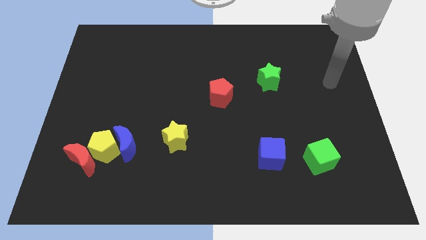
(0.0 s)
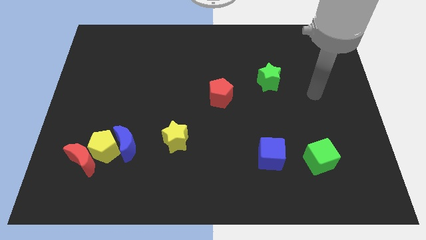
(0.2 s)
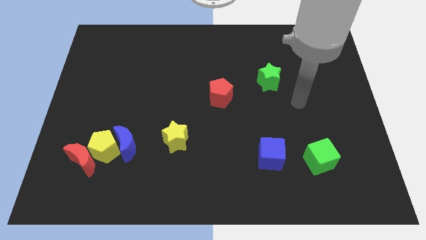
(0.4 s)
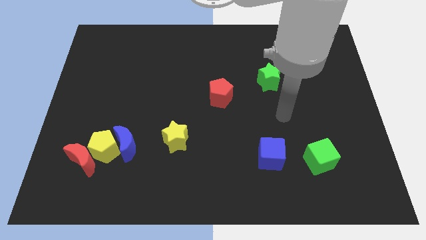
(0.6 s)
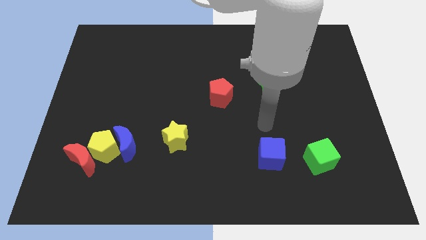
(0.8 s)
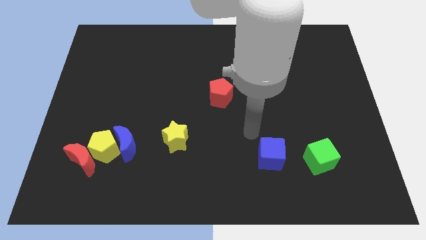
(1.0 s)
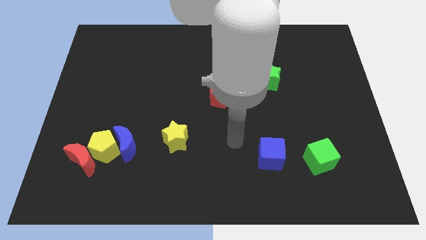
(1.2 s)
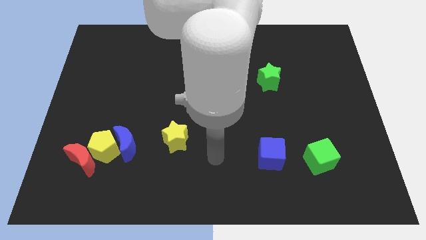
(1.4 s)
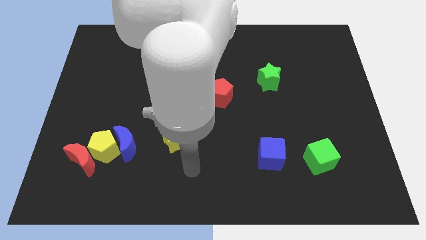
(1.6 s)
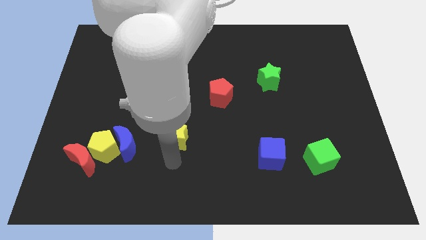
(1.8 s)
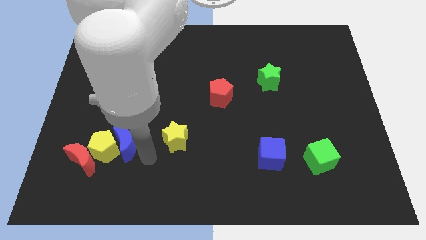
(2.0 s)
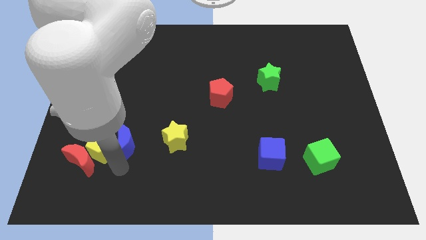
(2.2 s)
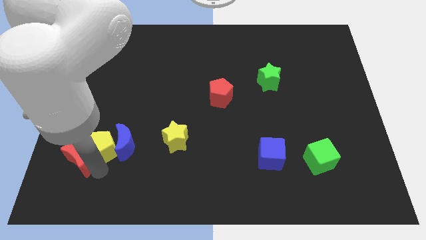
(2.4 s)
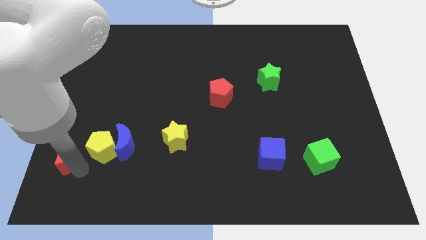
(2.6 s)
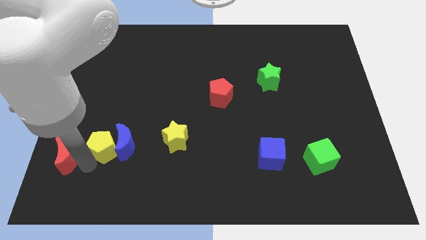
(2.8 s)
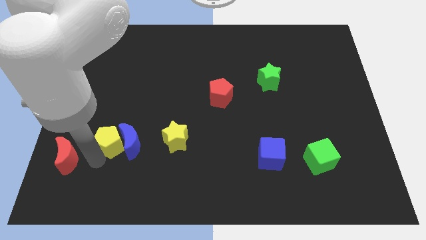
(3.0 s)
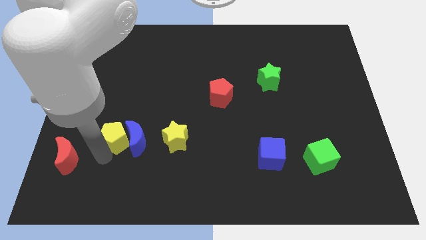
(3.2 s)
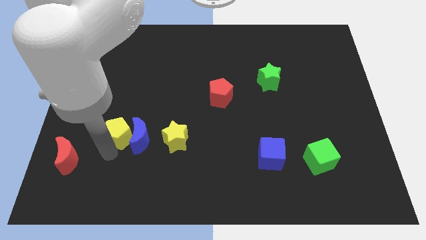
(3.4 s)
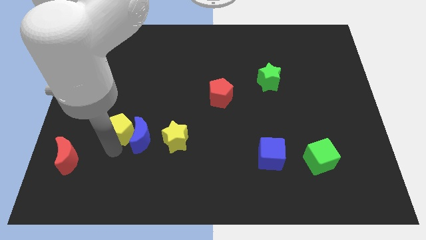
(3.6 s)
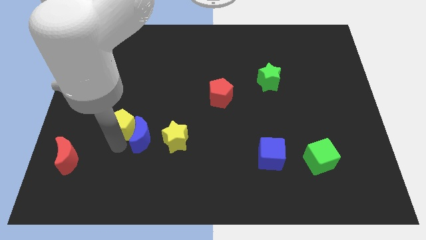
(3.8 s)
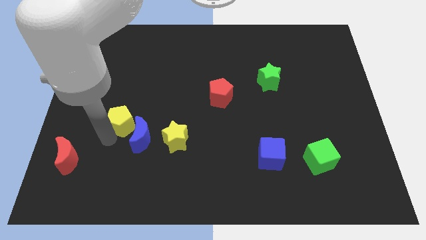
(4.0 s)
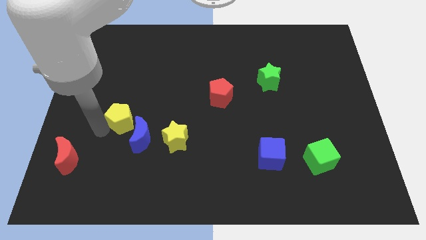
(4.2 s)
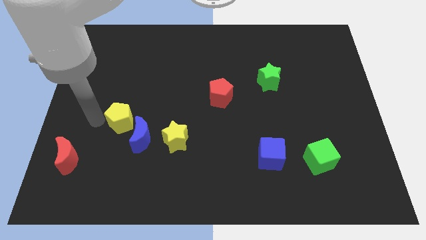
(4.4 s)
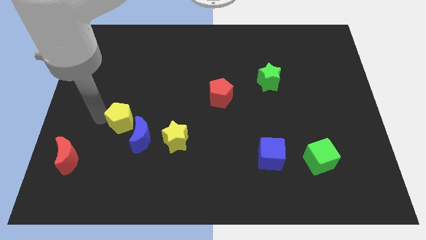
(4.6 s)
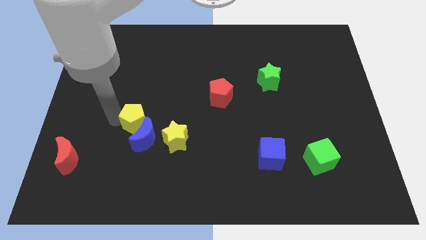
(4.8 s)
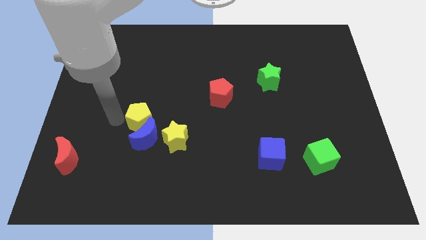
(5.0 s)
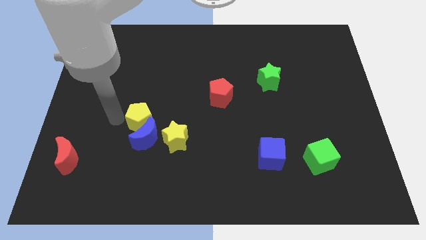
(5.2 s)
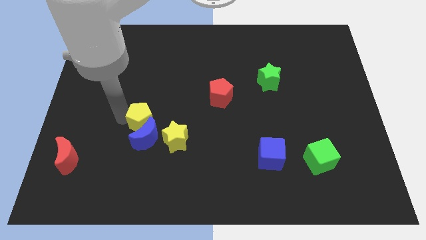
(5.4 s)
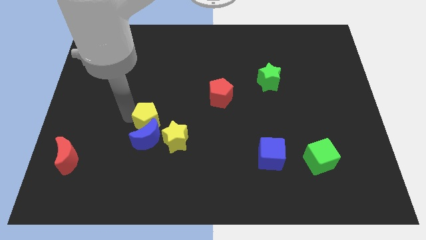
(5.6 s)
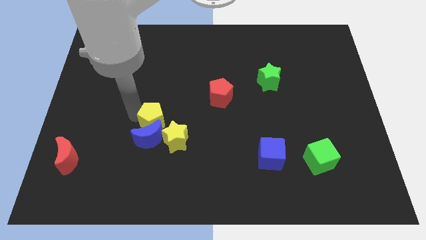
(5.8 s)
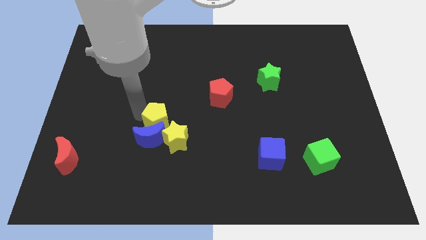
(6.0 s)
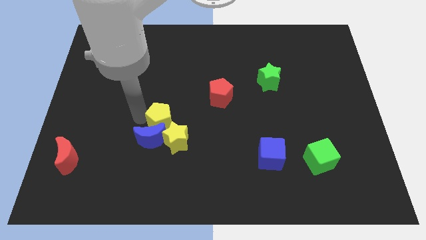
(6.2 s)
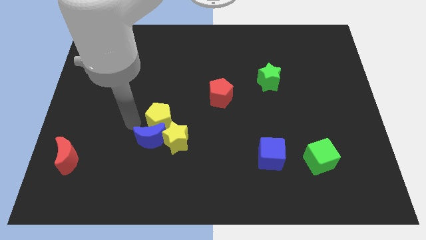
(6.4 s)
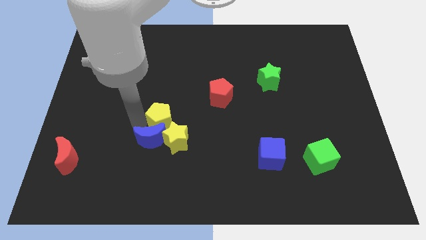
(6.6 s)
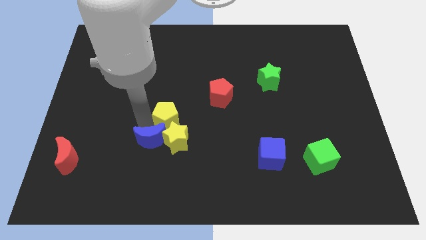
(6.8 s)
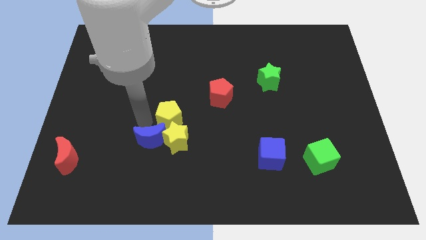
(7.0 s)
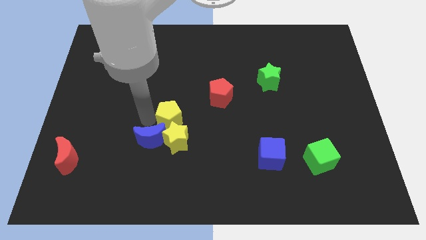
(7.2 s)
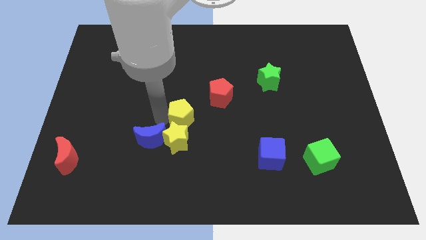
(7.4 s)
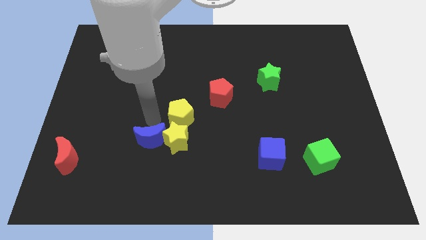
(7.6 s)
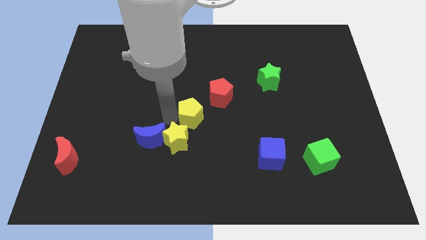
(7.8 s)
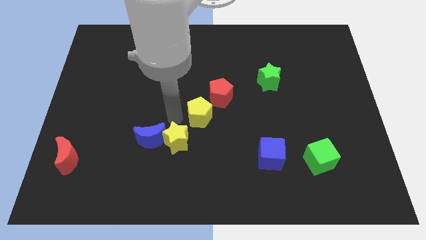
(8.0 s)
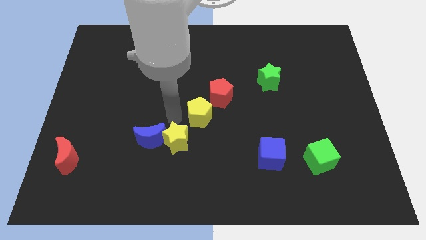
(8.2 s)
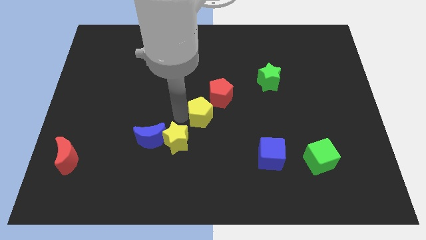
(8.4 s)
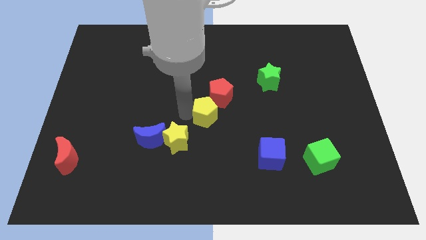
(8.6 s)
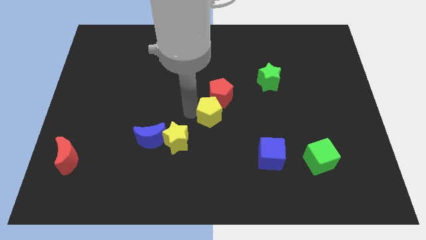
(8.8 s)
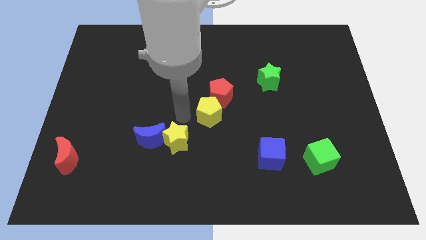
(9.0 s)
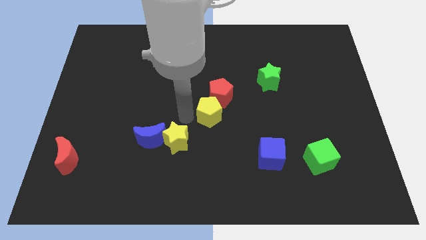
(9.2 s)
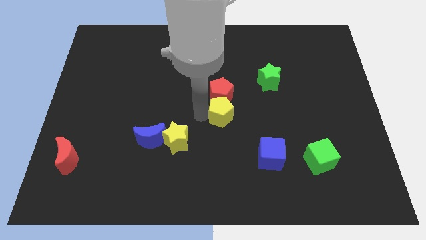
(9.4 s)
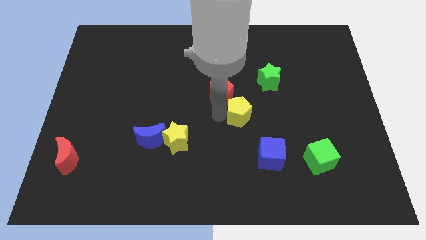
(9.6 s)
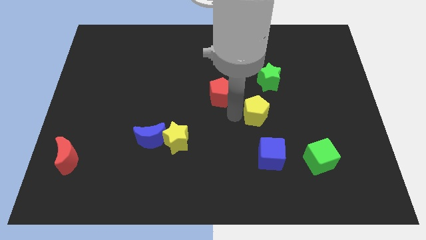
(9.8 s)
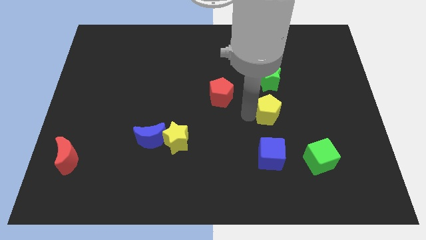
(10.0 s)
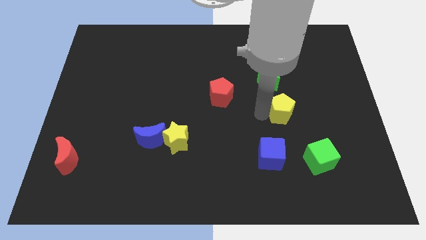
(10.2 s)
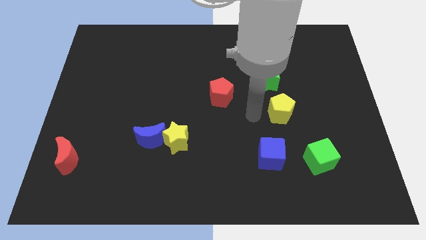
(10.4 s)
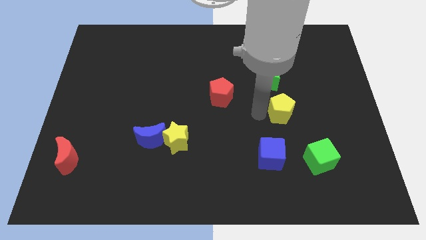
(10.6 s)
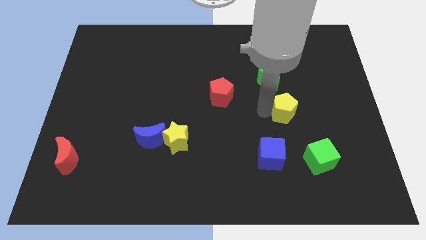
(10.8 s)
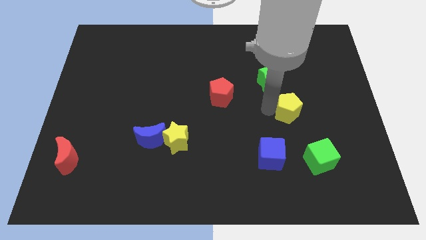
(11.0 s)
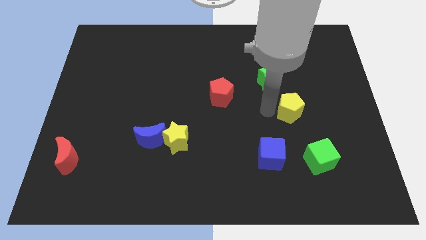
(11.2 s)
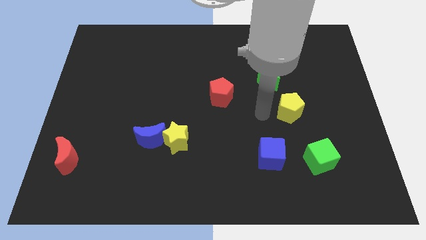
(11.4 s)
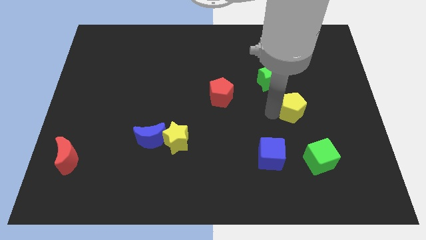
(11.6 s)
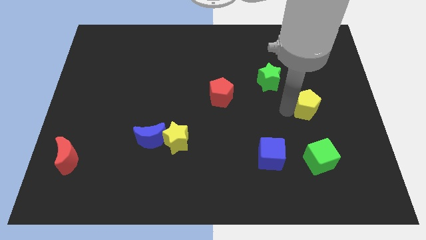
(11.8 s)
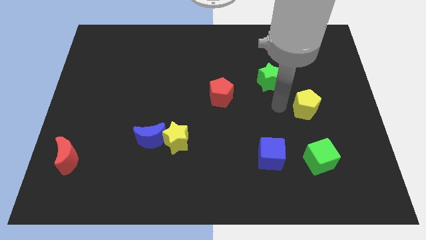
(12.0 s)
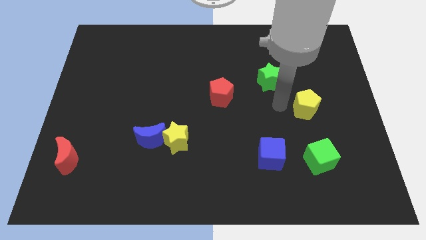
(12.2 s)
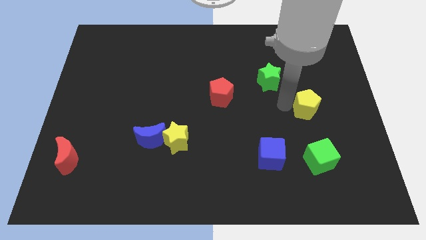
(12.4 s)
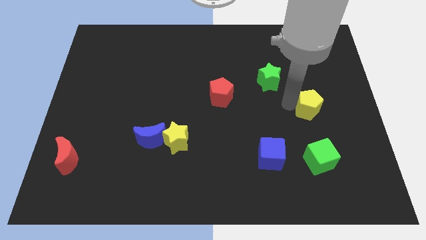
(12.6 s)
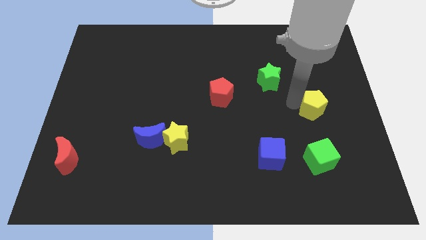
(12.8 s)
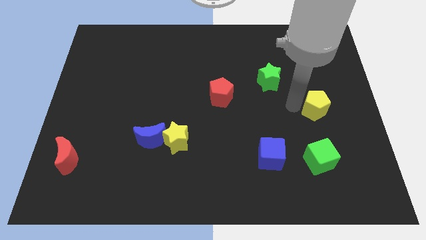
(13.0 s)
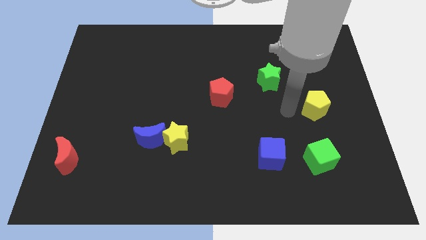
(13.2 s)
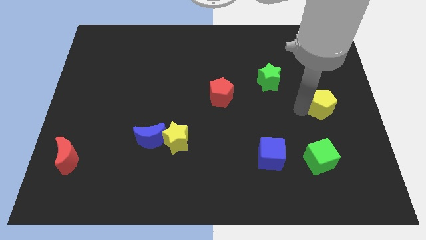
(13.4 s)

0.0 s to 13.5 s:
slide the yellow pentagon to the right side of the board
